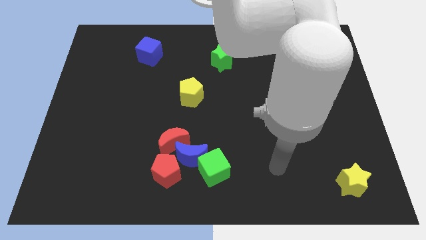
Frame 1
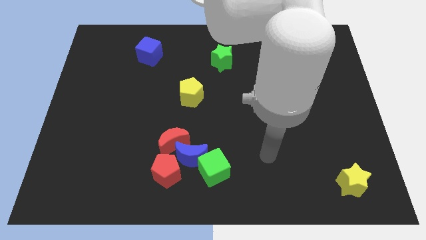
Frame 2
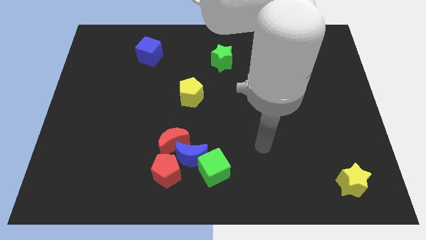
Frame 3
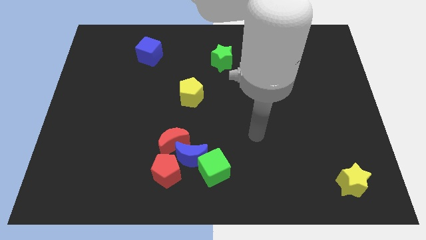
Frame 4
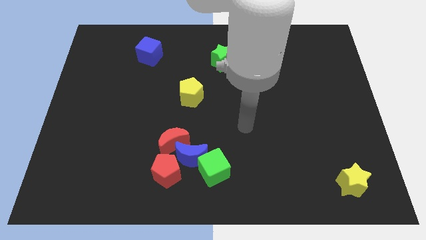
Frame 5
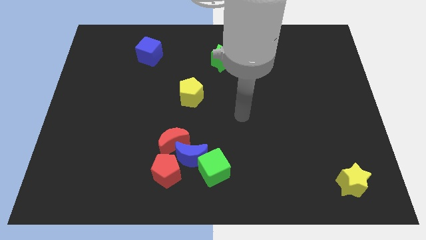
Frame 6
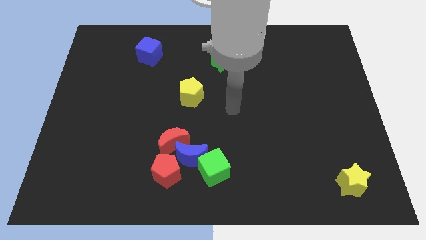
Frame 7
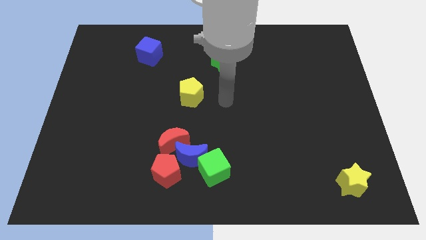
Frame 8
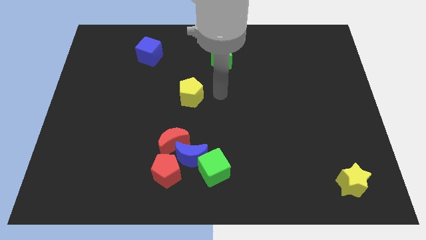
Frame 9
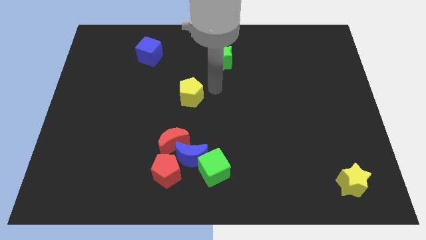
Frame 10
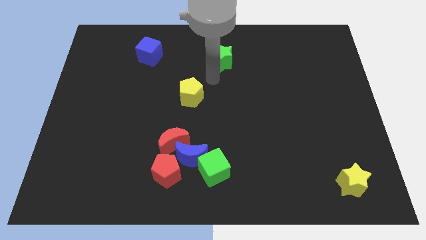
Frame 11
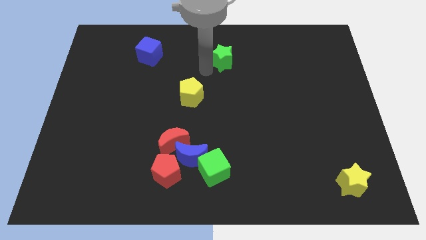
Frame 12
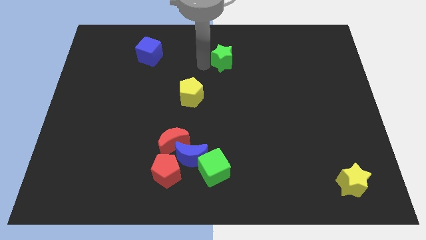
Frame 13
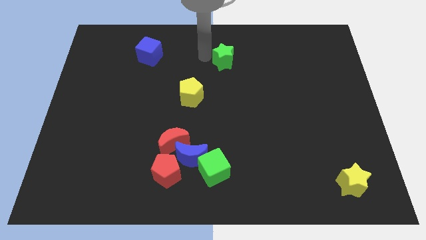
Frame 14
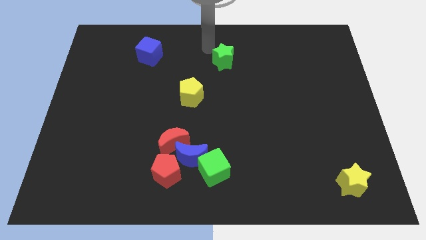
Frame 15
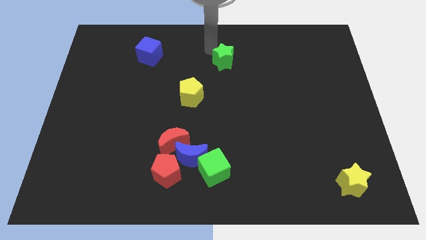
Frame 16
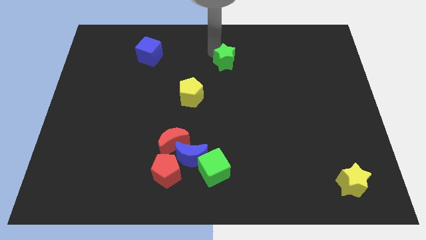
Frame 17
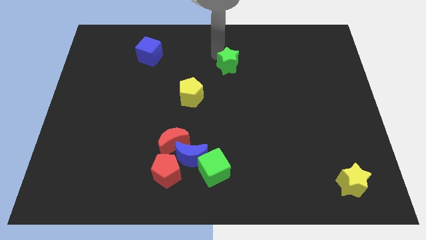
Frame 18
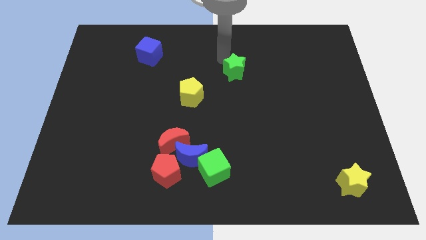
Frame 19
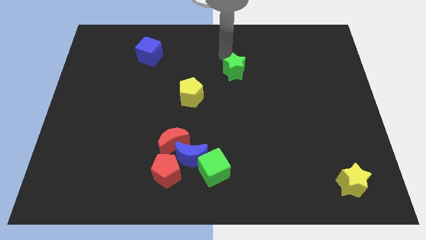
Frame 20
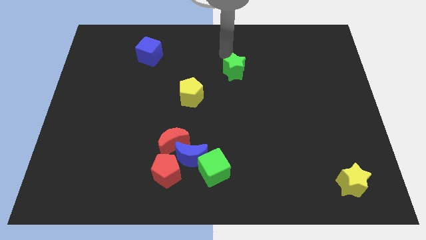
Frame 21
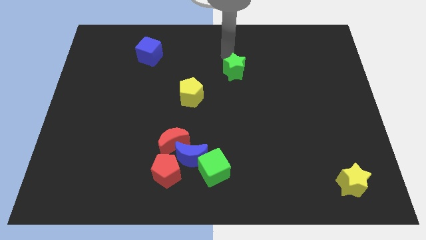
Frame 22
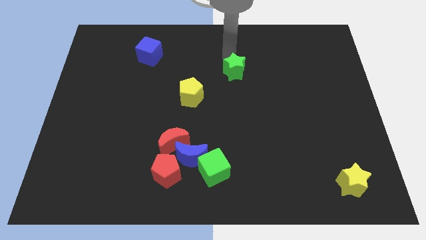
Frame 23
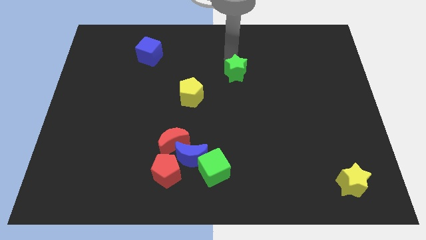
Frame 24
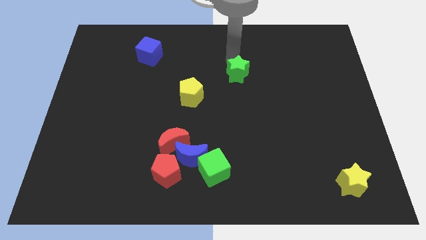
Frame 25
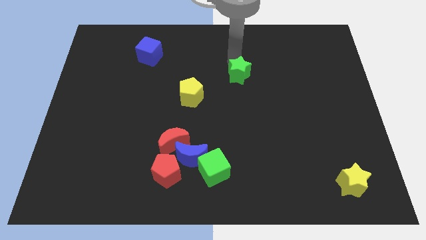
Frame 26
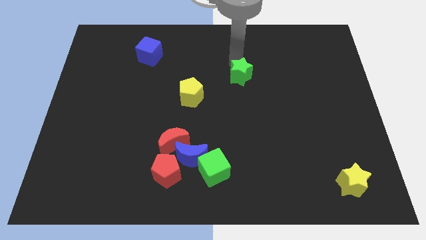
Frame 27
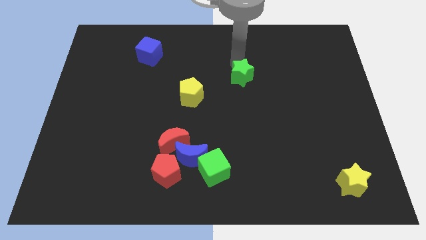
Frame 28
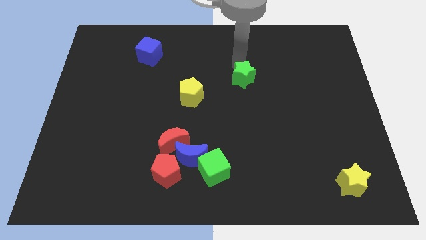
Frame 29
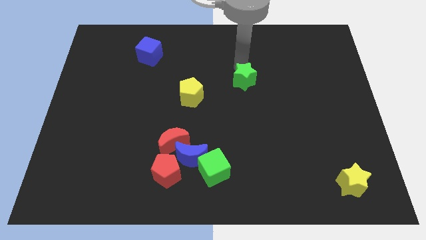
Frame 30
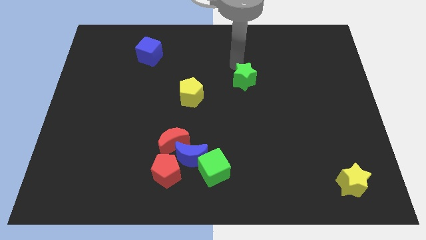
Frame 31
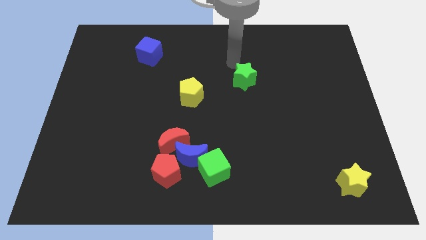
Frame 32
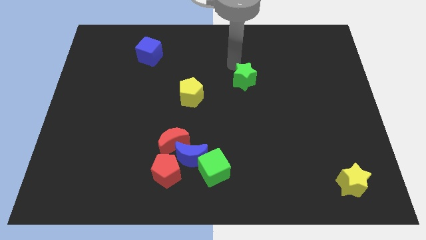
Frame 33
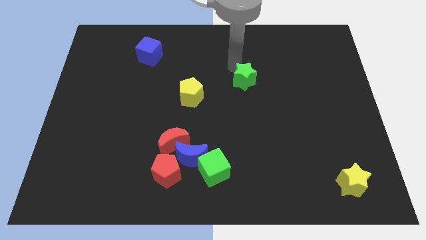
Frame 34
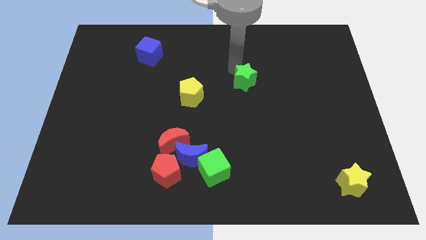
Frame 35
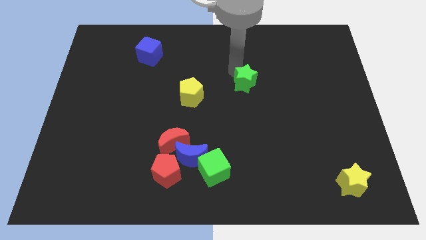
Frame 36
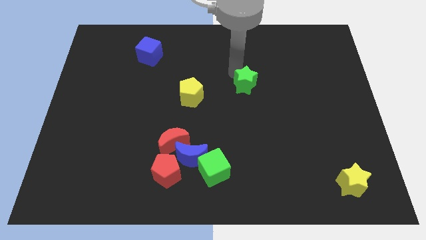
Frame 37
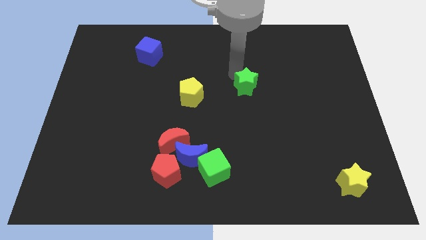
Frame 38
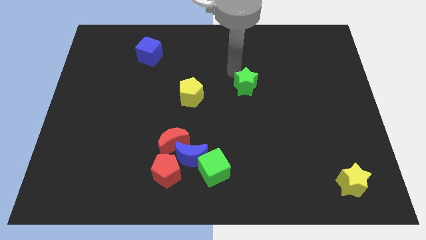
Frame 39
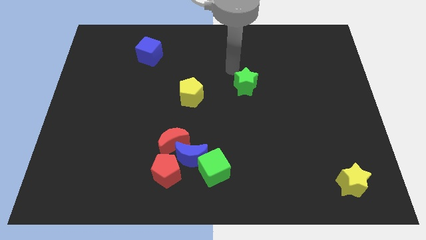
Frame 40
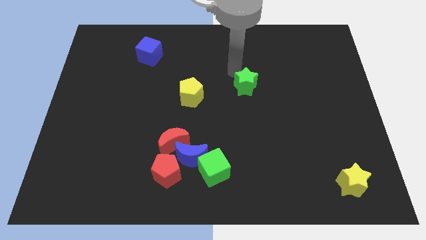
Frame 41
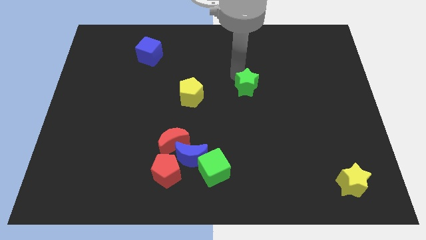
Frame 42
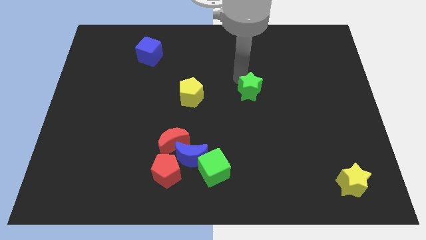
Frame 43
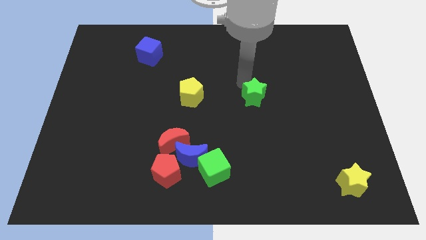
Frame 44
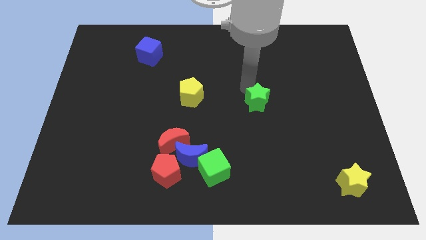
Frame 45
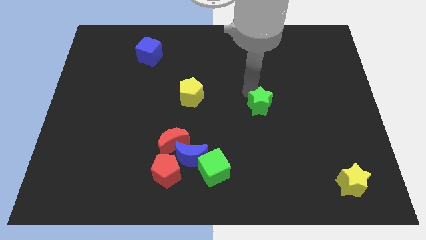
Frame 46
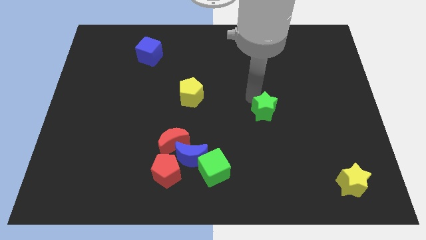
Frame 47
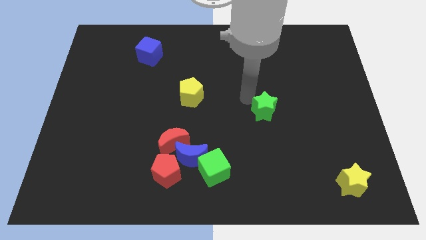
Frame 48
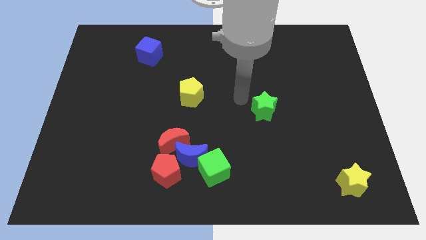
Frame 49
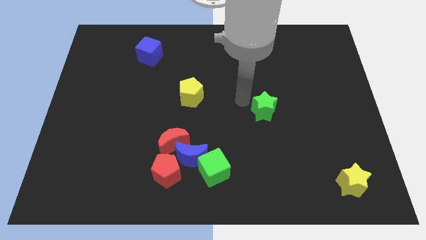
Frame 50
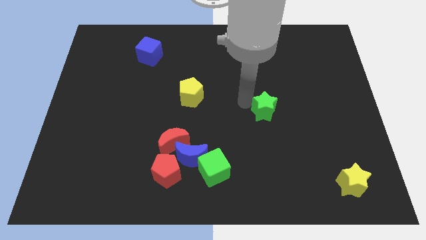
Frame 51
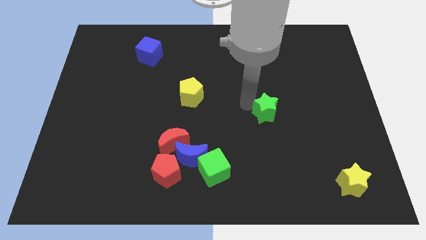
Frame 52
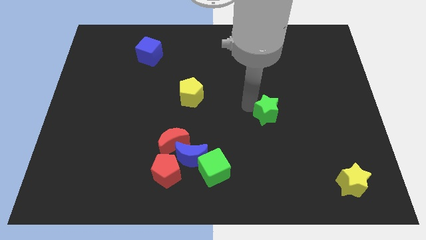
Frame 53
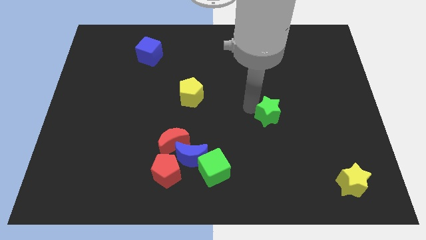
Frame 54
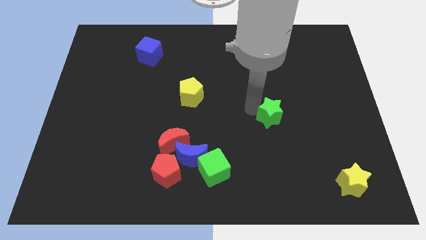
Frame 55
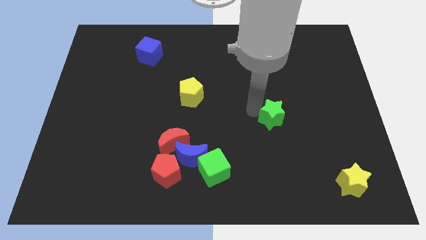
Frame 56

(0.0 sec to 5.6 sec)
move the green star down and then to the right

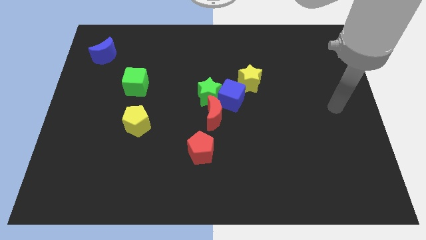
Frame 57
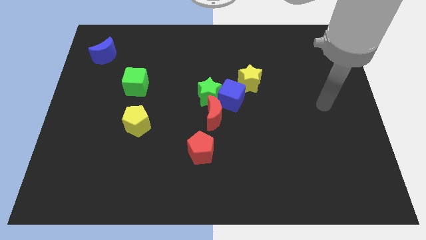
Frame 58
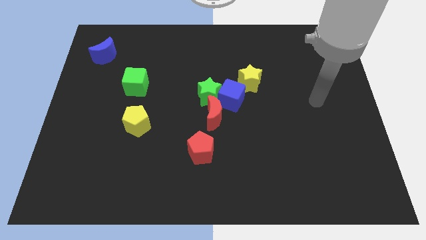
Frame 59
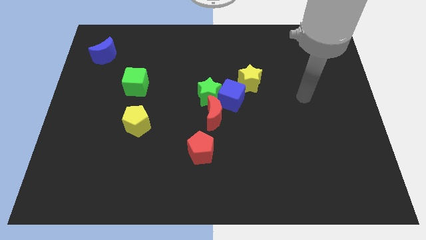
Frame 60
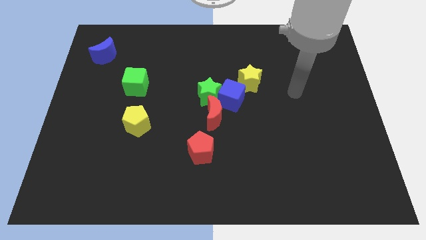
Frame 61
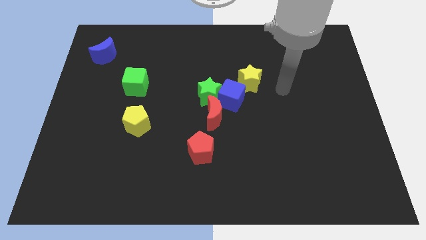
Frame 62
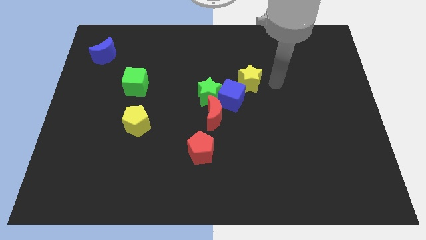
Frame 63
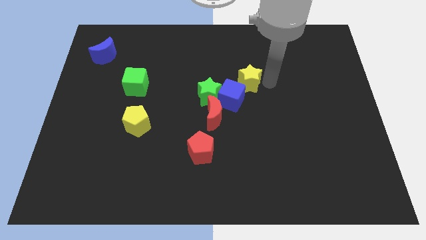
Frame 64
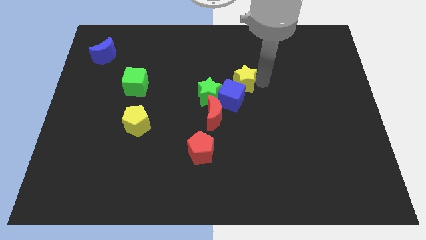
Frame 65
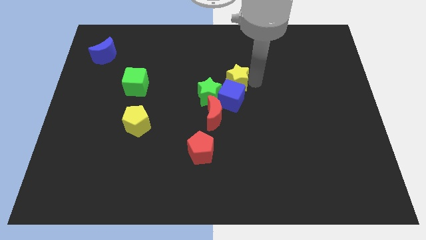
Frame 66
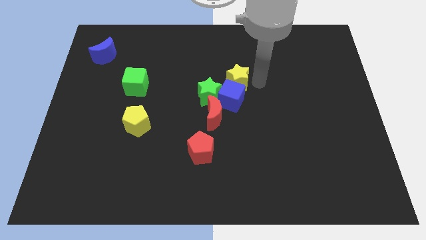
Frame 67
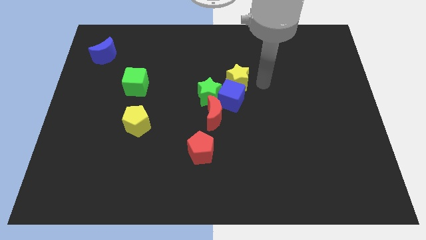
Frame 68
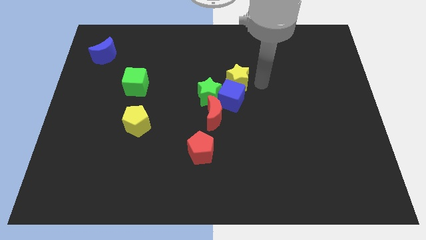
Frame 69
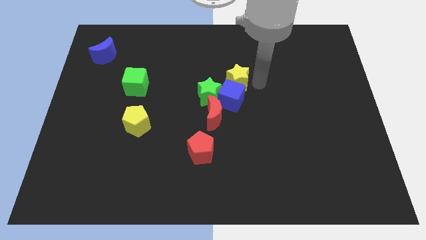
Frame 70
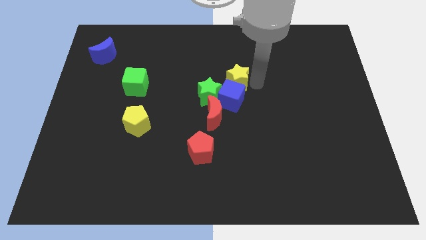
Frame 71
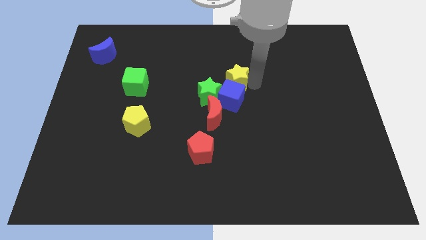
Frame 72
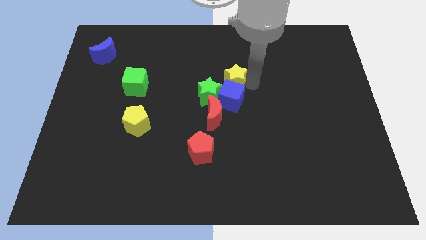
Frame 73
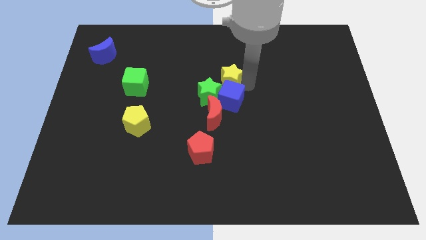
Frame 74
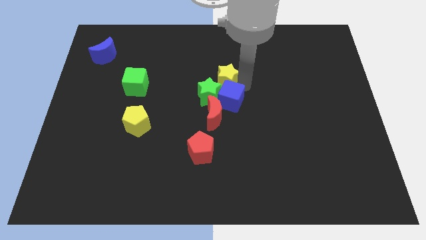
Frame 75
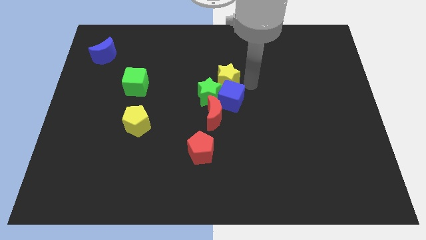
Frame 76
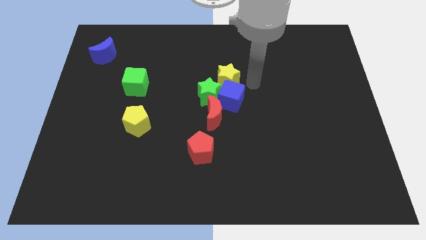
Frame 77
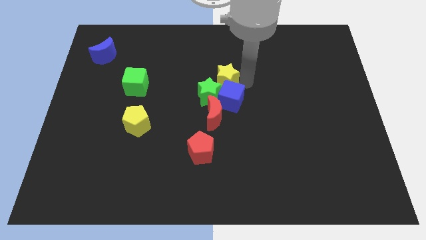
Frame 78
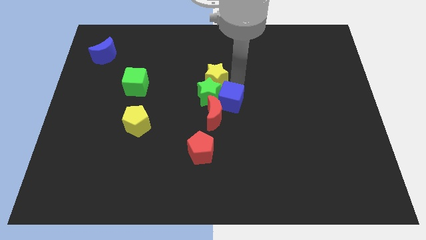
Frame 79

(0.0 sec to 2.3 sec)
move the yellow star a little to the left
